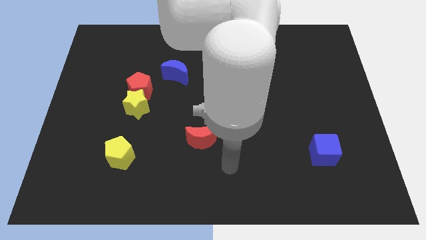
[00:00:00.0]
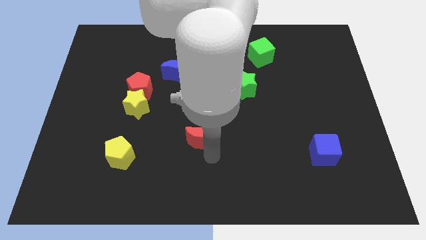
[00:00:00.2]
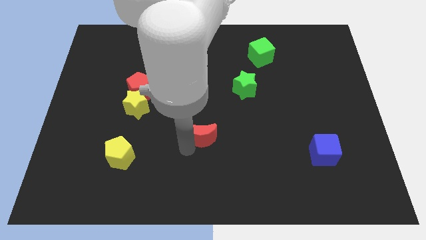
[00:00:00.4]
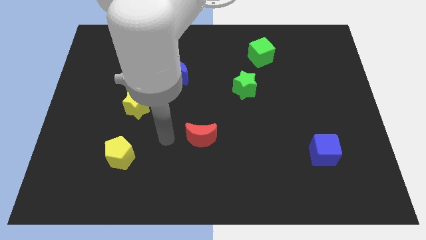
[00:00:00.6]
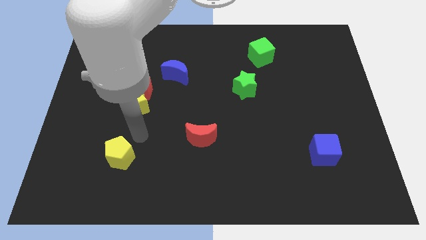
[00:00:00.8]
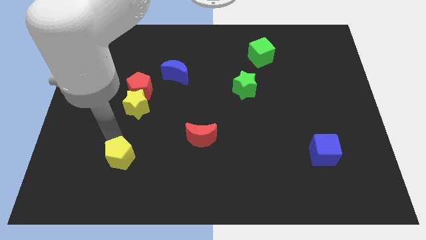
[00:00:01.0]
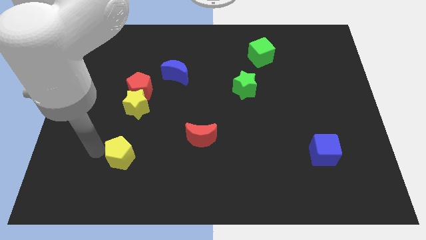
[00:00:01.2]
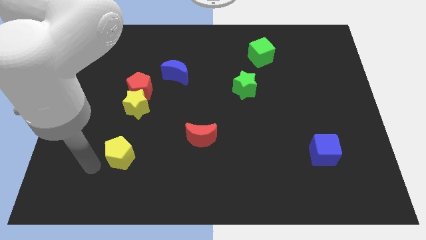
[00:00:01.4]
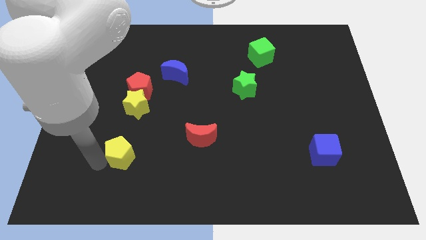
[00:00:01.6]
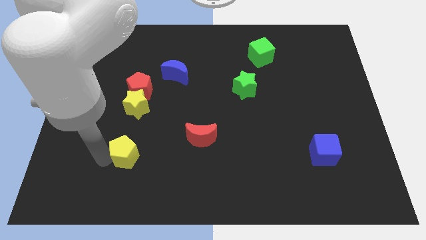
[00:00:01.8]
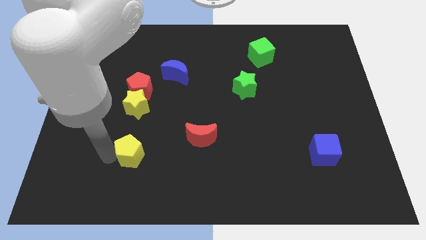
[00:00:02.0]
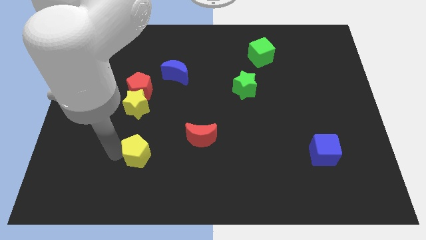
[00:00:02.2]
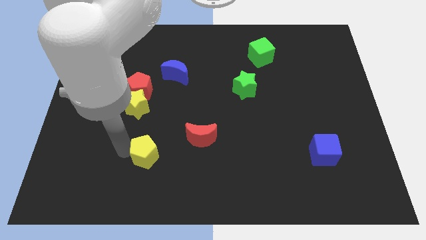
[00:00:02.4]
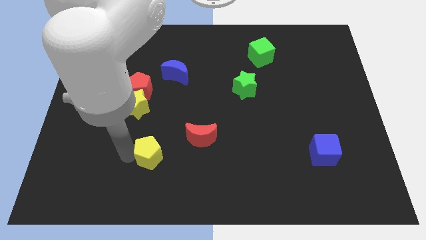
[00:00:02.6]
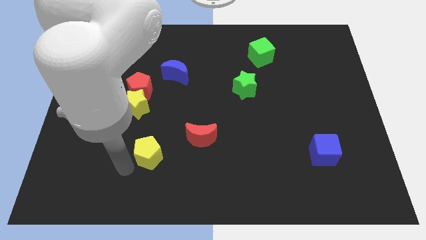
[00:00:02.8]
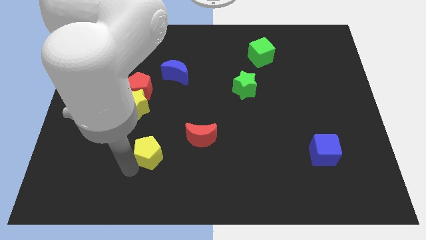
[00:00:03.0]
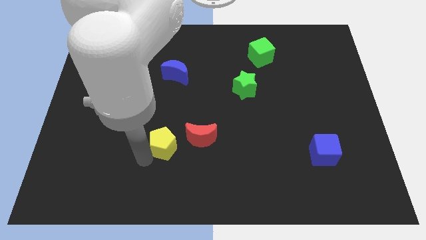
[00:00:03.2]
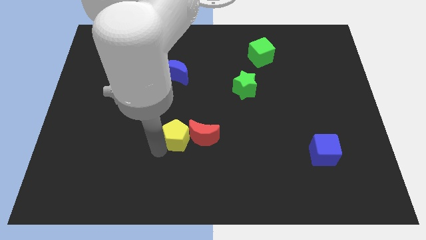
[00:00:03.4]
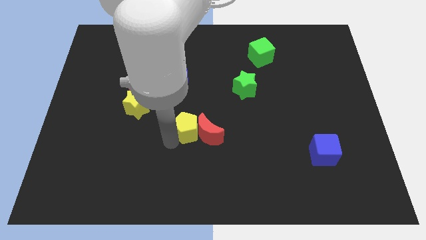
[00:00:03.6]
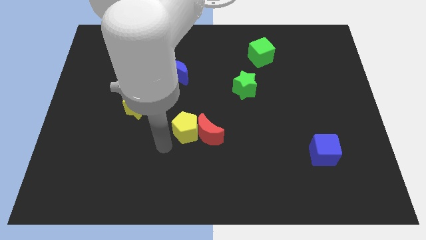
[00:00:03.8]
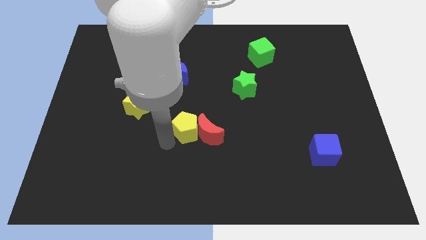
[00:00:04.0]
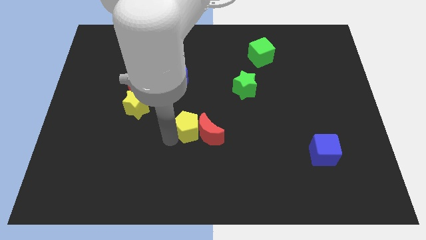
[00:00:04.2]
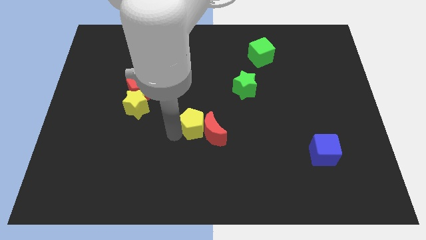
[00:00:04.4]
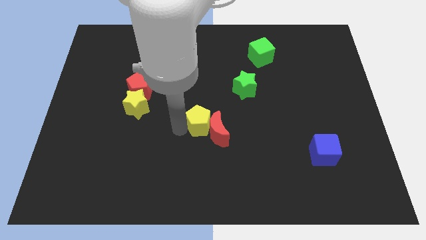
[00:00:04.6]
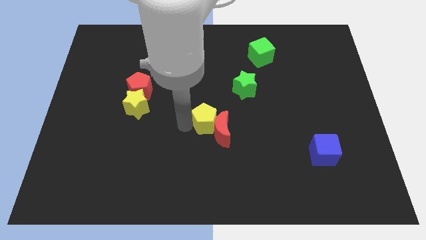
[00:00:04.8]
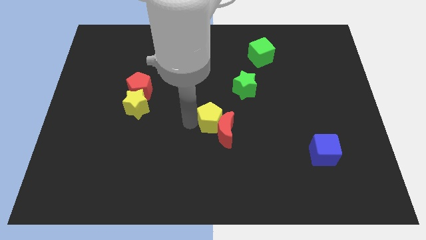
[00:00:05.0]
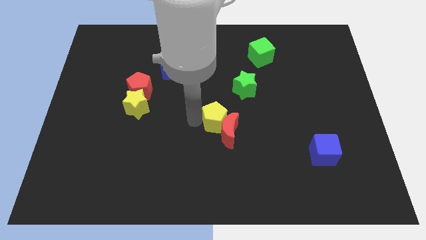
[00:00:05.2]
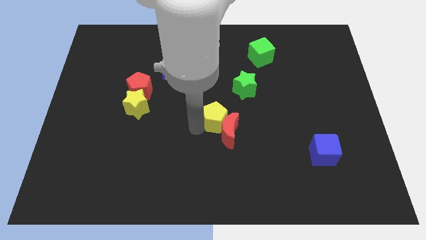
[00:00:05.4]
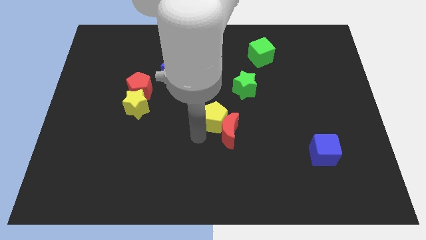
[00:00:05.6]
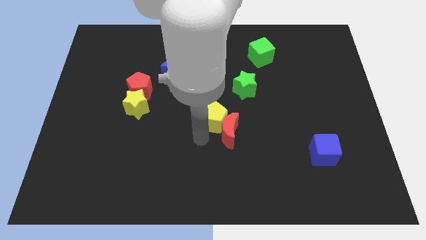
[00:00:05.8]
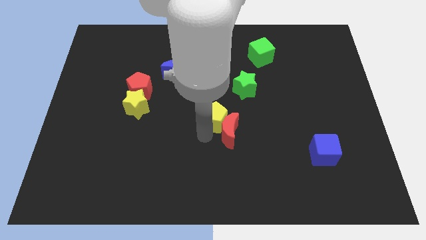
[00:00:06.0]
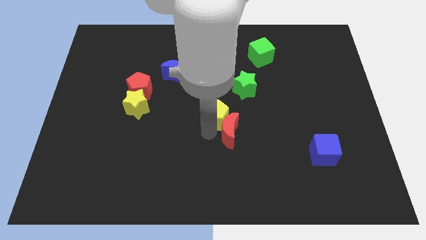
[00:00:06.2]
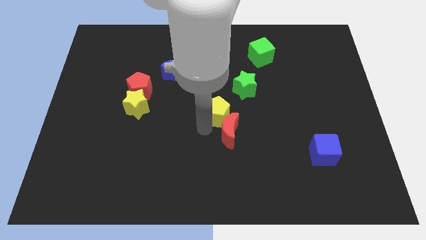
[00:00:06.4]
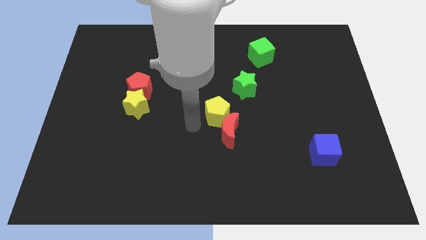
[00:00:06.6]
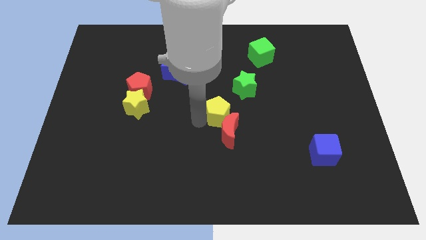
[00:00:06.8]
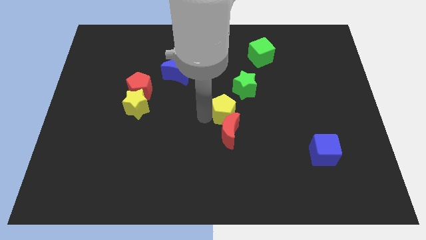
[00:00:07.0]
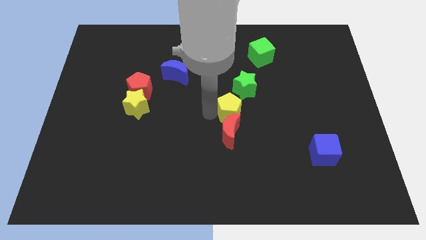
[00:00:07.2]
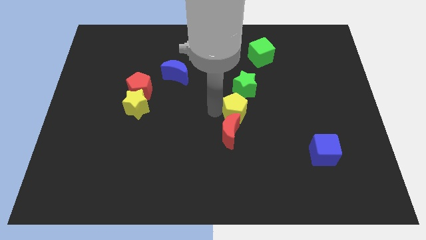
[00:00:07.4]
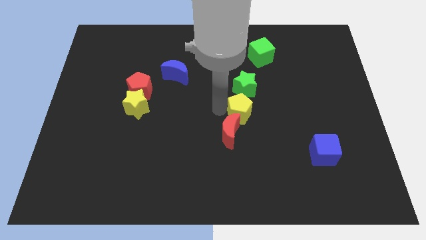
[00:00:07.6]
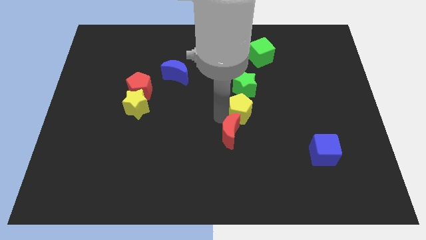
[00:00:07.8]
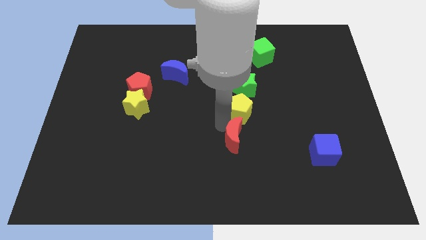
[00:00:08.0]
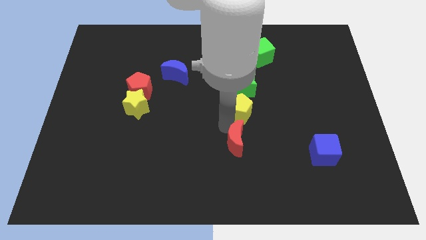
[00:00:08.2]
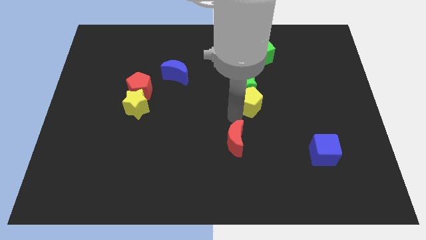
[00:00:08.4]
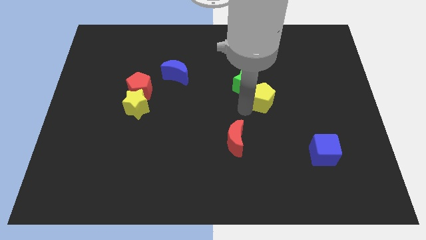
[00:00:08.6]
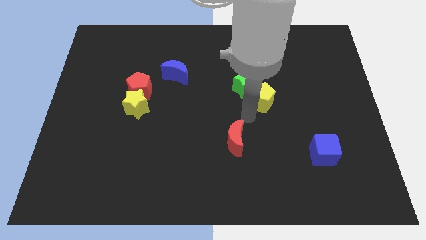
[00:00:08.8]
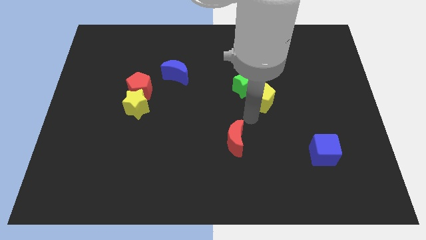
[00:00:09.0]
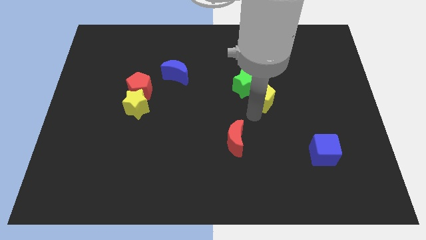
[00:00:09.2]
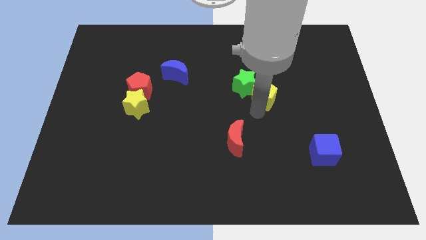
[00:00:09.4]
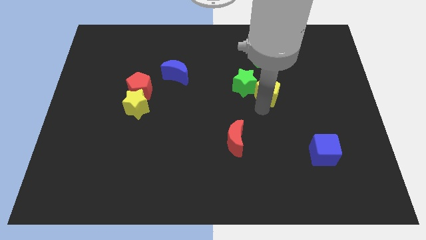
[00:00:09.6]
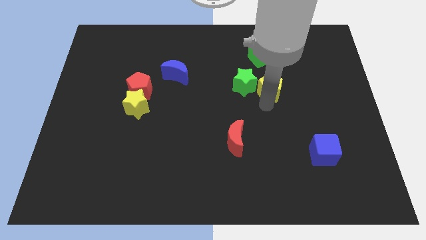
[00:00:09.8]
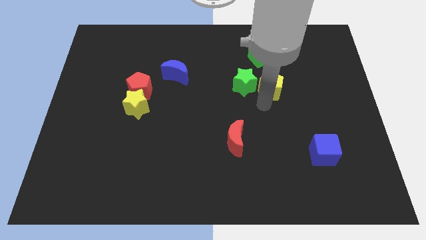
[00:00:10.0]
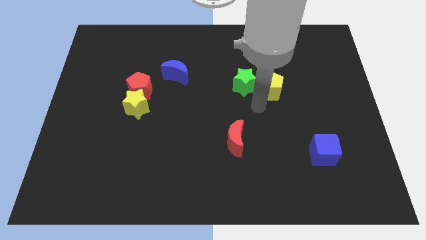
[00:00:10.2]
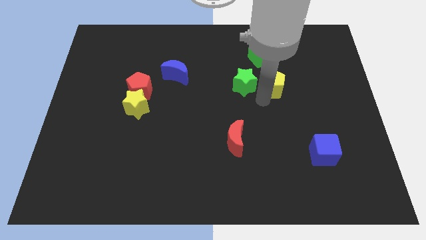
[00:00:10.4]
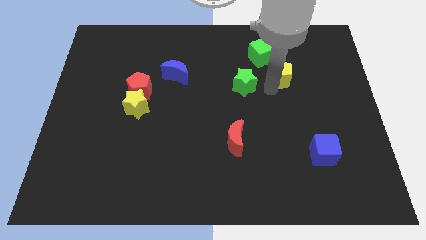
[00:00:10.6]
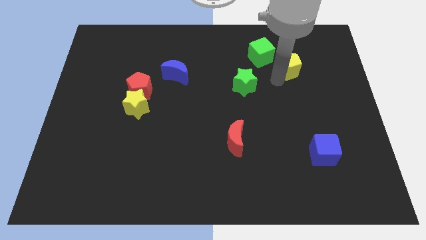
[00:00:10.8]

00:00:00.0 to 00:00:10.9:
put the yellow pentagon to the right side of the green cube
